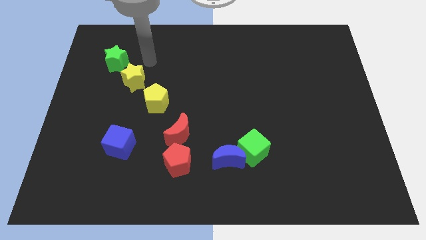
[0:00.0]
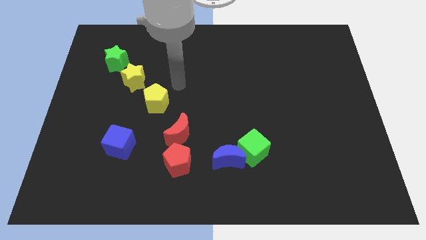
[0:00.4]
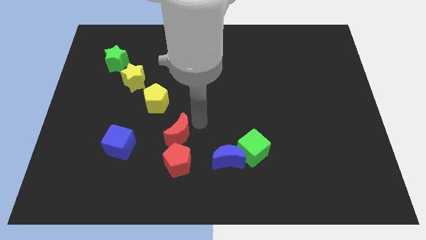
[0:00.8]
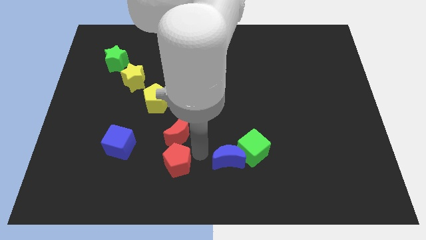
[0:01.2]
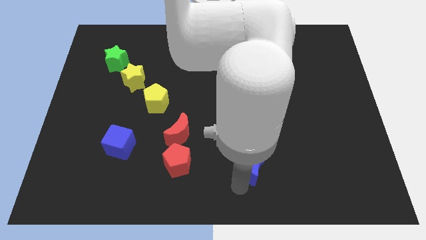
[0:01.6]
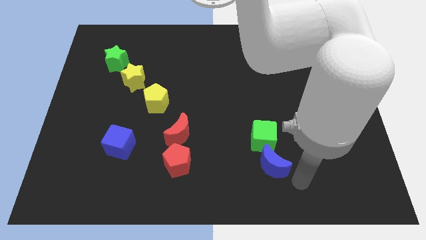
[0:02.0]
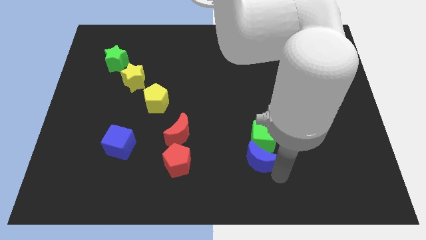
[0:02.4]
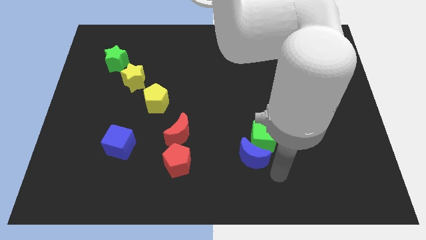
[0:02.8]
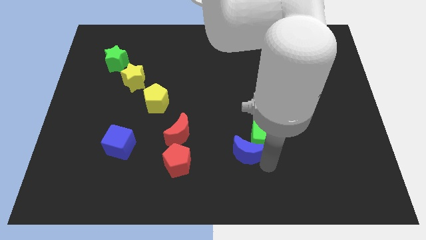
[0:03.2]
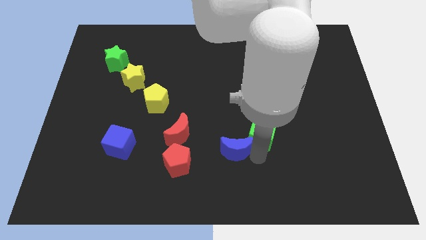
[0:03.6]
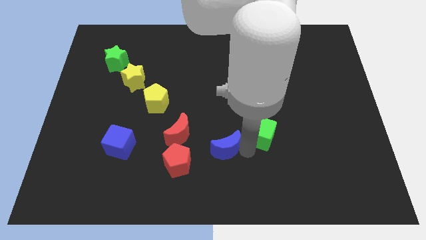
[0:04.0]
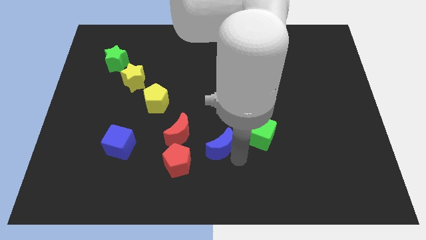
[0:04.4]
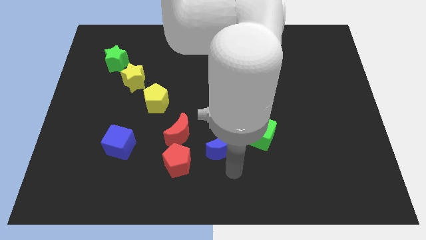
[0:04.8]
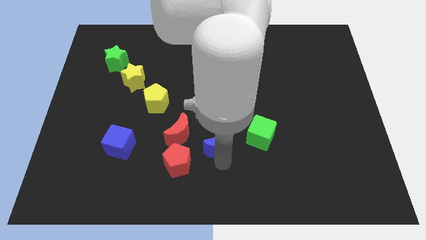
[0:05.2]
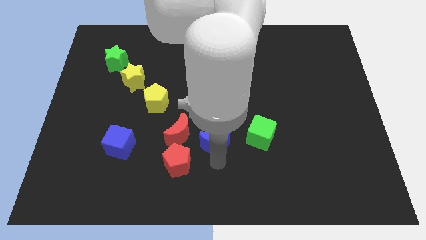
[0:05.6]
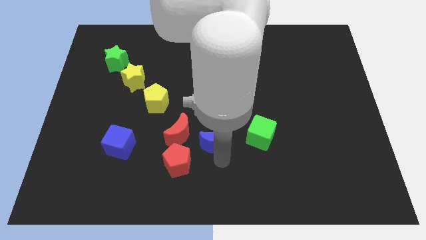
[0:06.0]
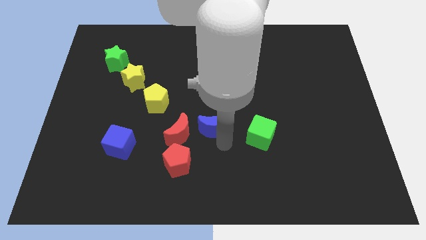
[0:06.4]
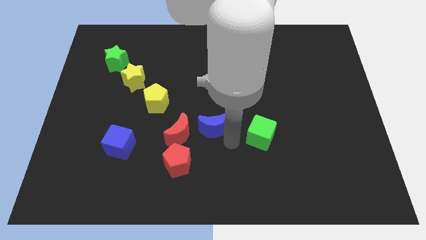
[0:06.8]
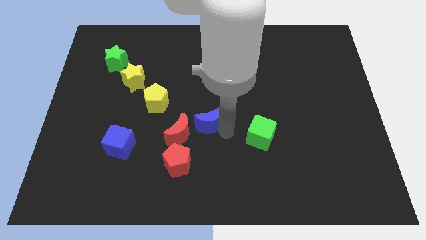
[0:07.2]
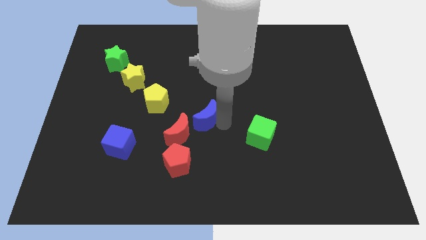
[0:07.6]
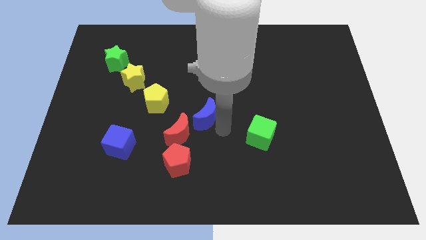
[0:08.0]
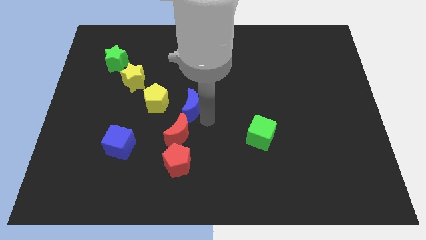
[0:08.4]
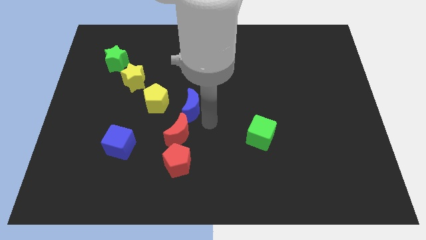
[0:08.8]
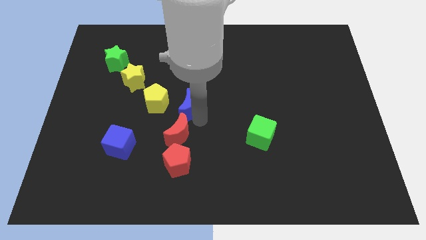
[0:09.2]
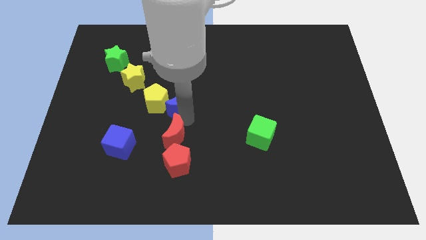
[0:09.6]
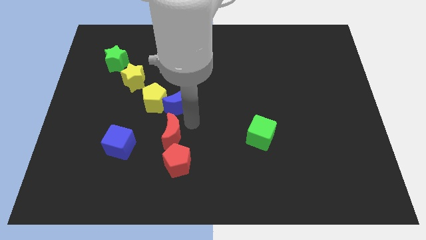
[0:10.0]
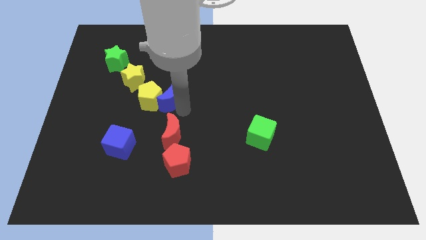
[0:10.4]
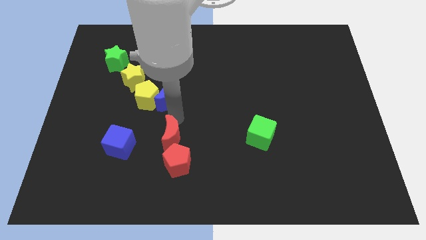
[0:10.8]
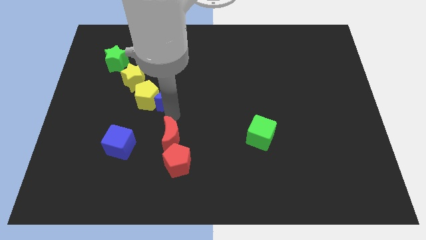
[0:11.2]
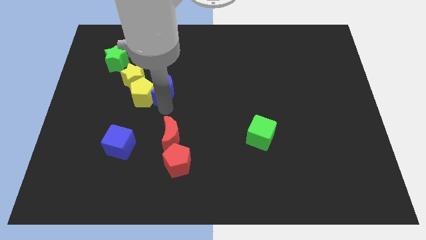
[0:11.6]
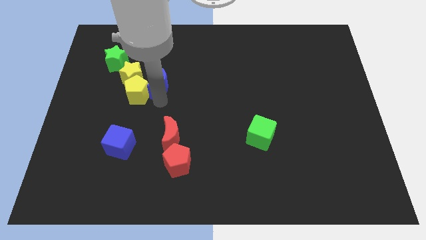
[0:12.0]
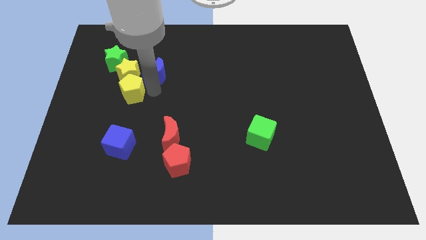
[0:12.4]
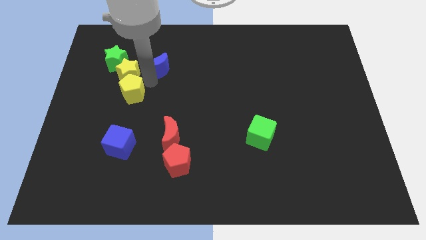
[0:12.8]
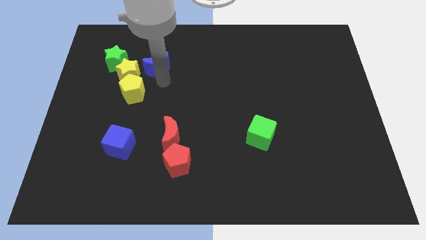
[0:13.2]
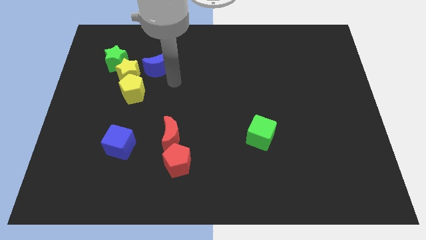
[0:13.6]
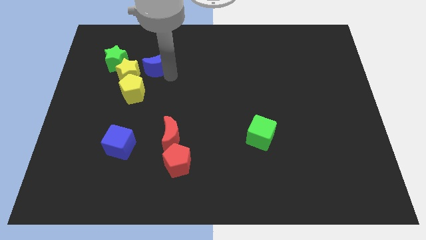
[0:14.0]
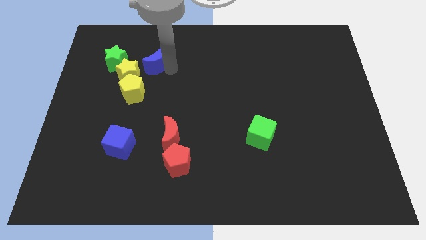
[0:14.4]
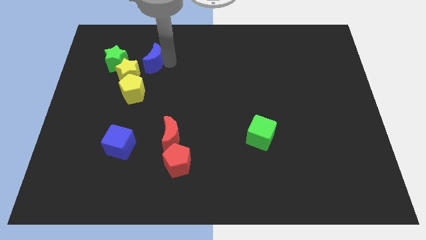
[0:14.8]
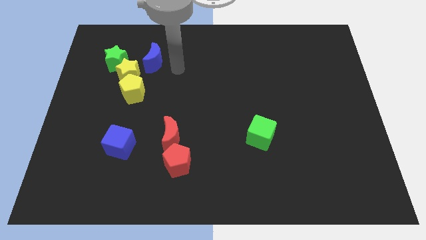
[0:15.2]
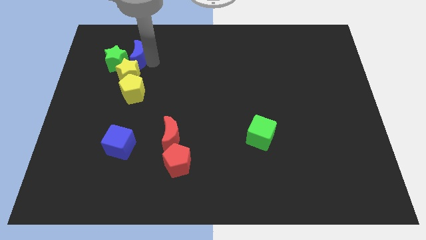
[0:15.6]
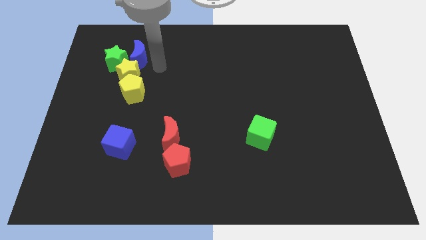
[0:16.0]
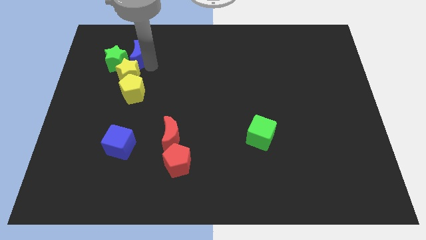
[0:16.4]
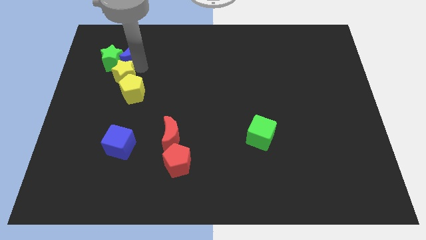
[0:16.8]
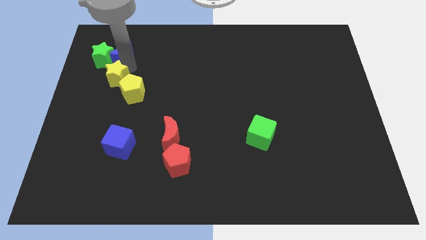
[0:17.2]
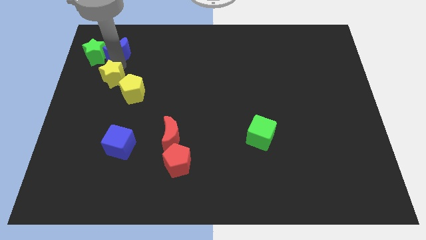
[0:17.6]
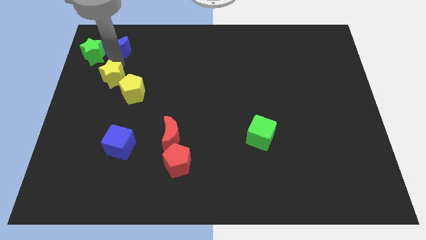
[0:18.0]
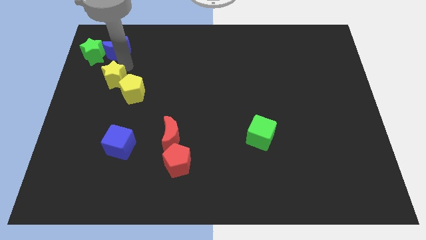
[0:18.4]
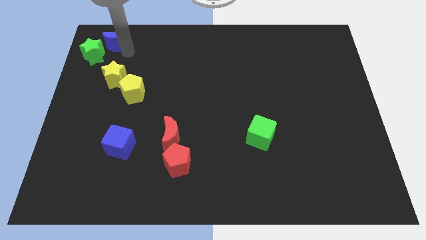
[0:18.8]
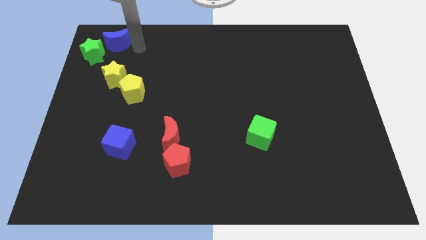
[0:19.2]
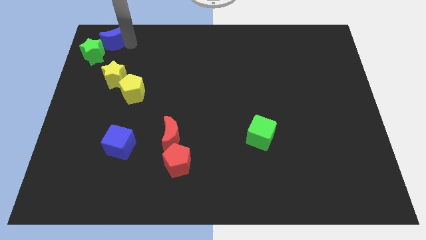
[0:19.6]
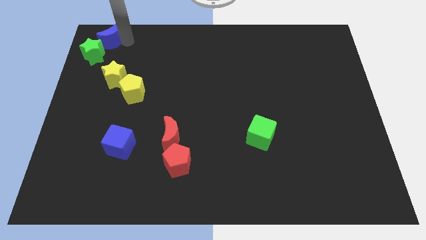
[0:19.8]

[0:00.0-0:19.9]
slide the blue moon to the top left of the board

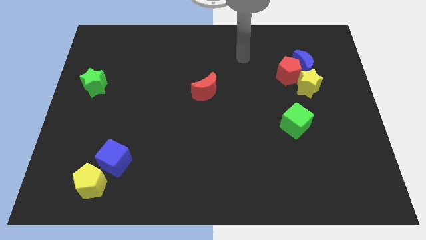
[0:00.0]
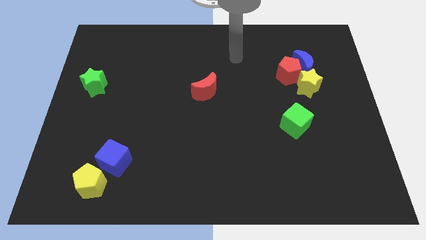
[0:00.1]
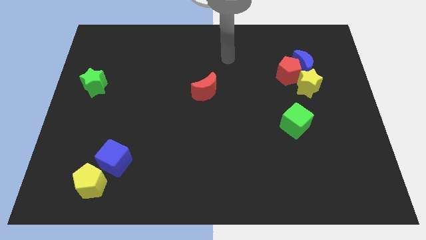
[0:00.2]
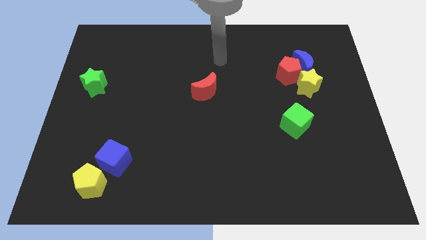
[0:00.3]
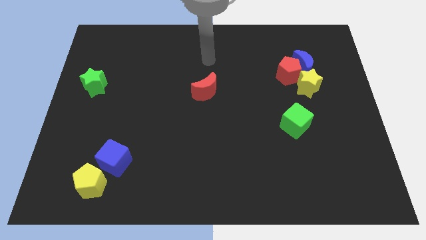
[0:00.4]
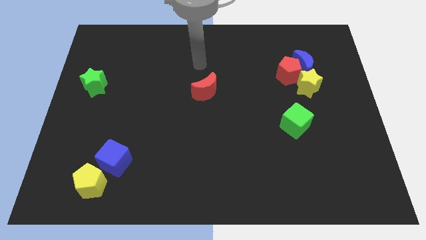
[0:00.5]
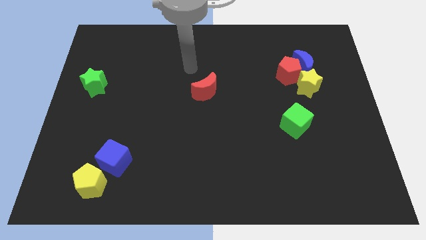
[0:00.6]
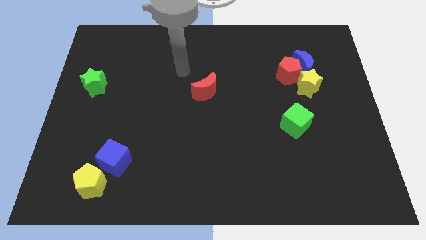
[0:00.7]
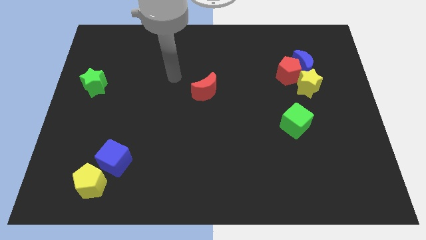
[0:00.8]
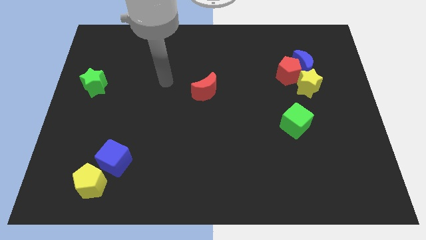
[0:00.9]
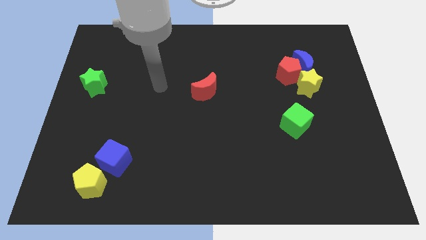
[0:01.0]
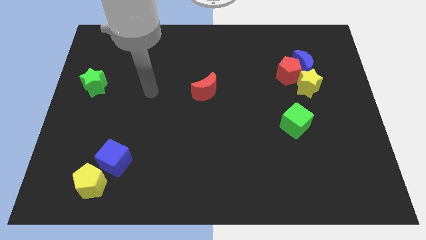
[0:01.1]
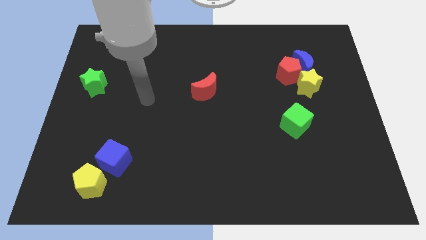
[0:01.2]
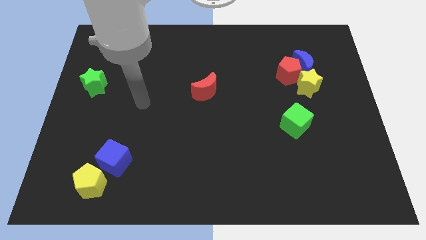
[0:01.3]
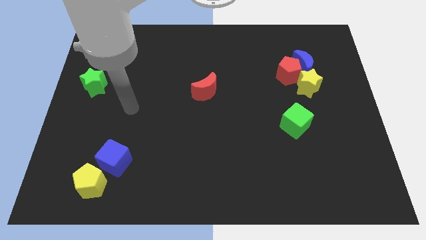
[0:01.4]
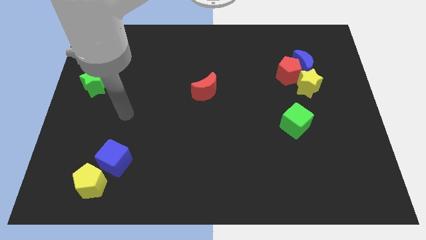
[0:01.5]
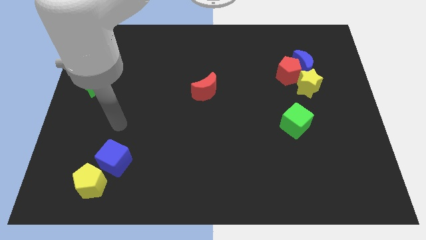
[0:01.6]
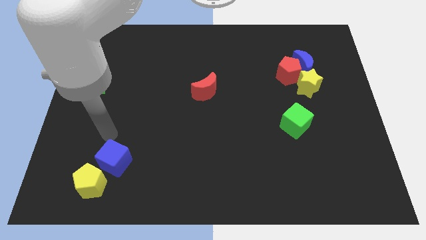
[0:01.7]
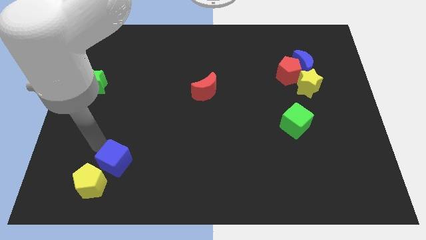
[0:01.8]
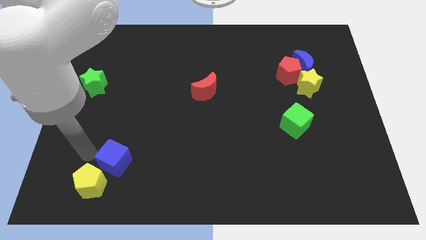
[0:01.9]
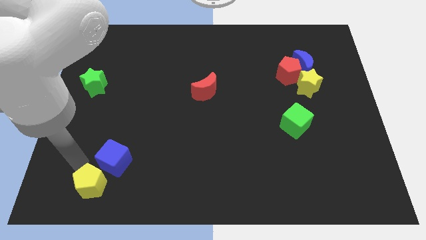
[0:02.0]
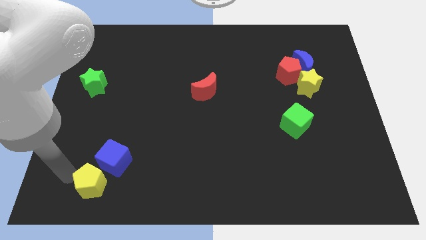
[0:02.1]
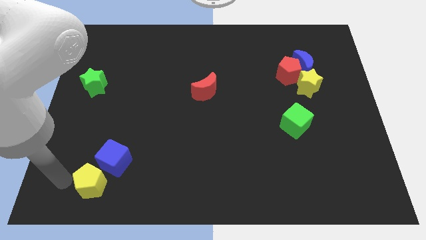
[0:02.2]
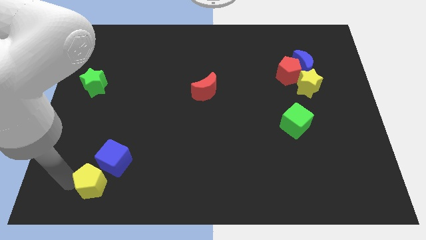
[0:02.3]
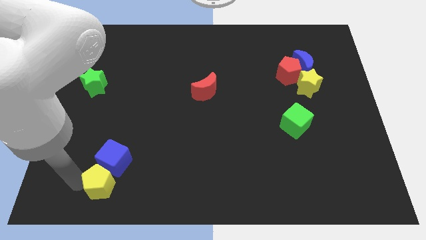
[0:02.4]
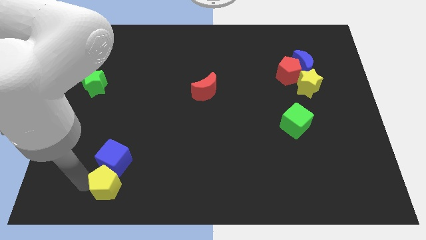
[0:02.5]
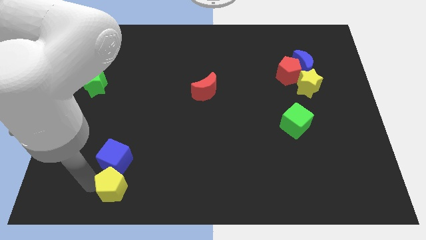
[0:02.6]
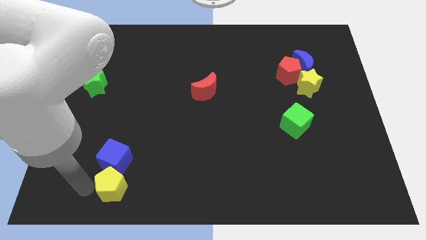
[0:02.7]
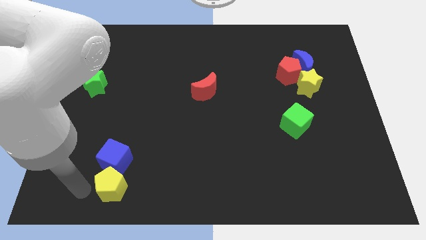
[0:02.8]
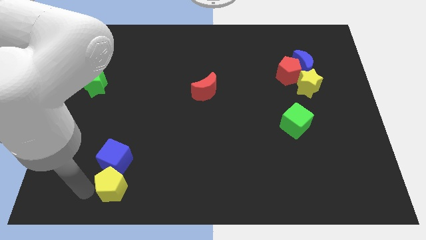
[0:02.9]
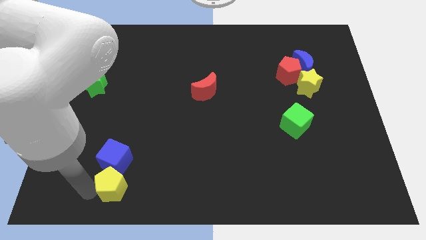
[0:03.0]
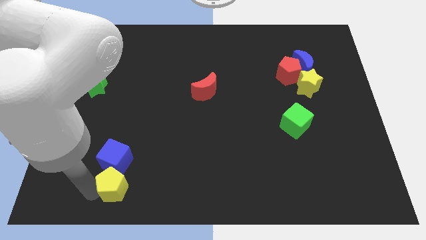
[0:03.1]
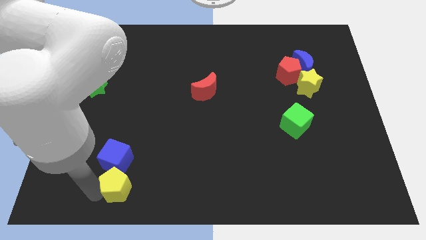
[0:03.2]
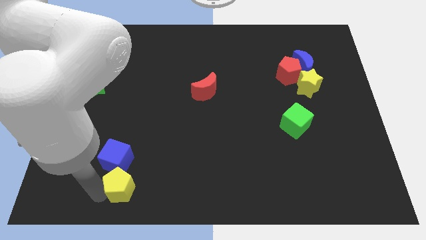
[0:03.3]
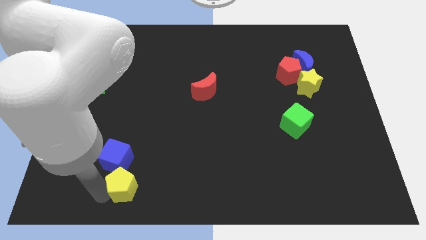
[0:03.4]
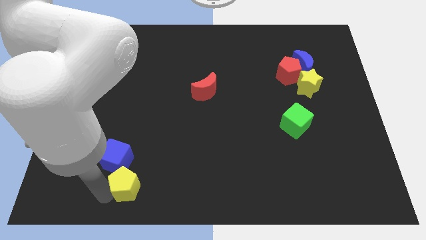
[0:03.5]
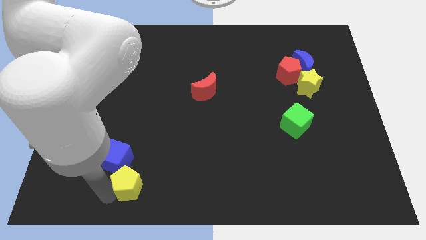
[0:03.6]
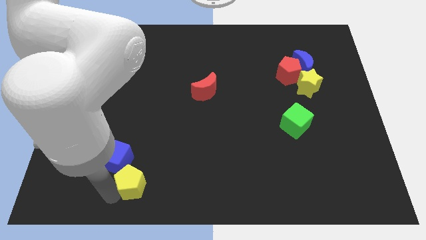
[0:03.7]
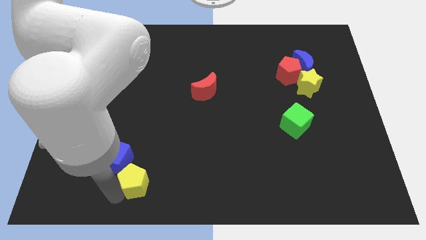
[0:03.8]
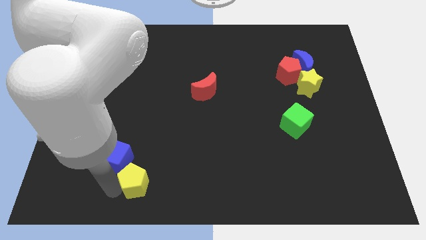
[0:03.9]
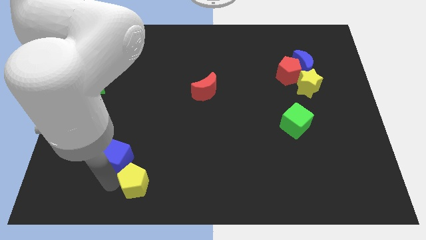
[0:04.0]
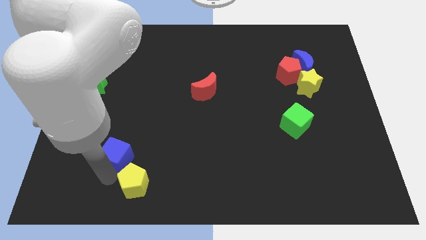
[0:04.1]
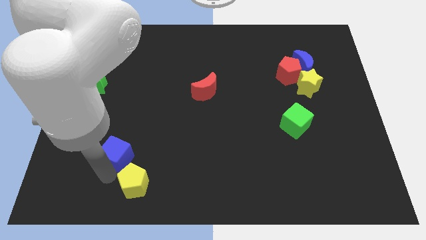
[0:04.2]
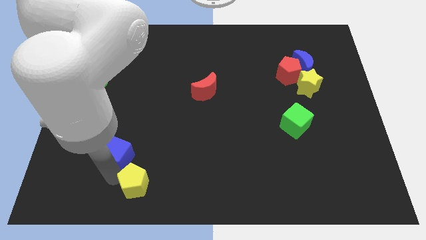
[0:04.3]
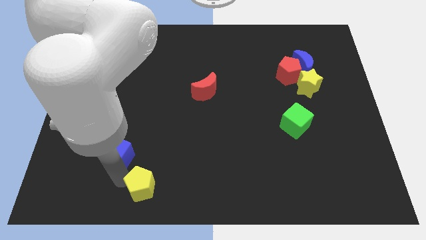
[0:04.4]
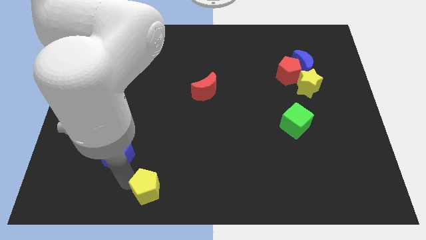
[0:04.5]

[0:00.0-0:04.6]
push the yellow pentagon to the bottom
